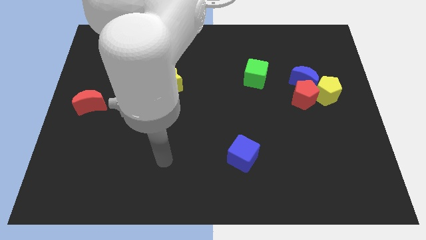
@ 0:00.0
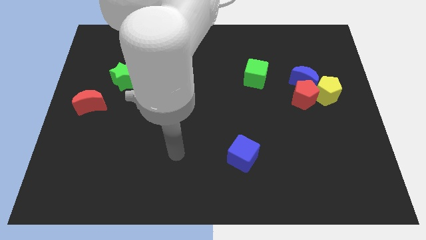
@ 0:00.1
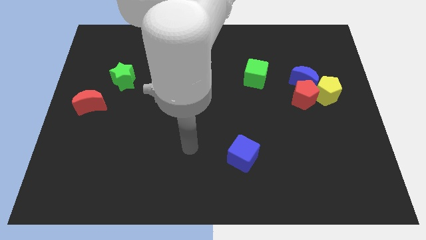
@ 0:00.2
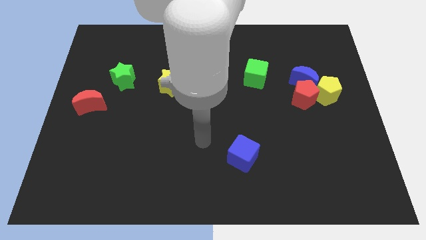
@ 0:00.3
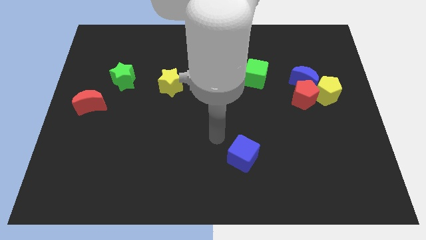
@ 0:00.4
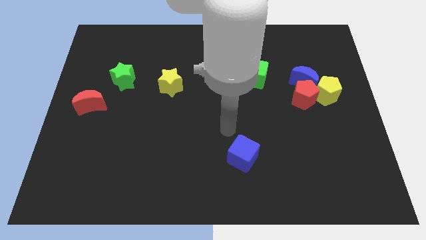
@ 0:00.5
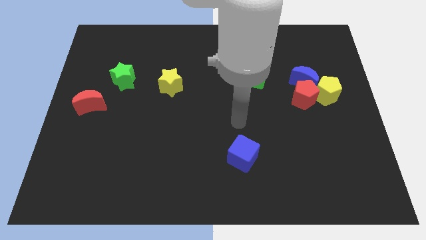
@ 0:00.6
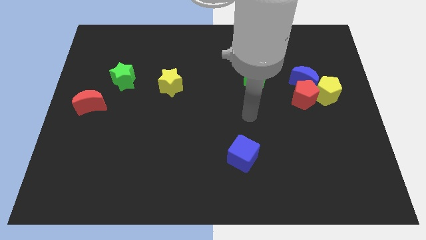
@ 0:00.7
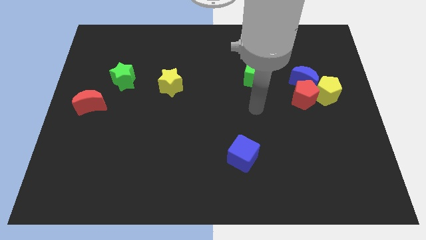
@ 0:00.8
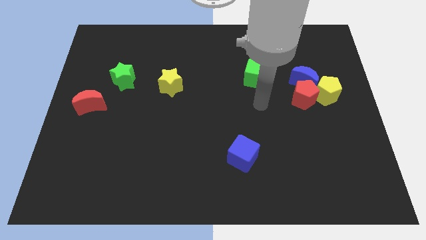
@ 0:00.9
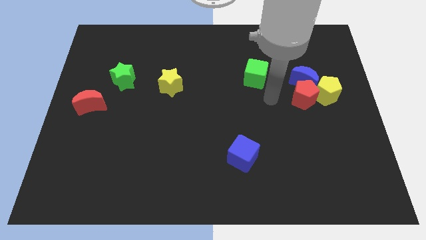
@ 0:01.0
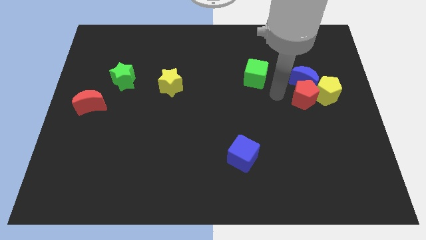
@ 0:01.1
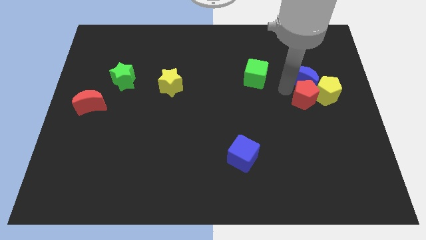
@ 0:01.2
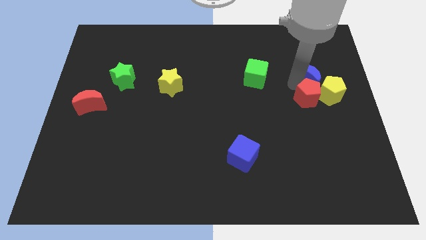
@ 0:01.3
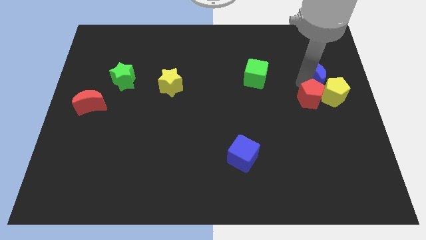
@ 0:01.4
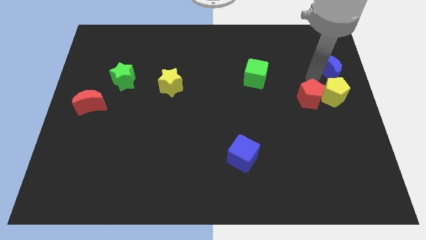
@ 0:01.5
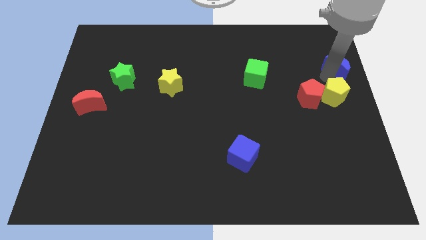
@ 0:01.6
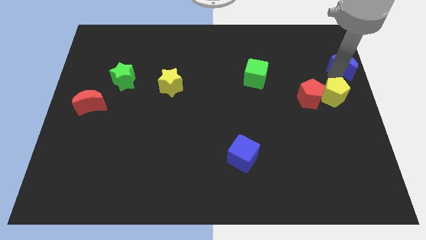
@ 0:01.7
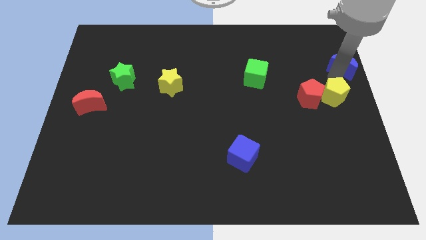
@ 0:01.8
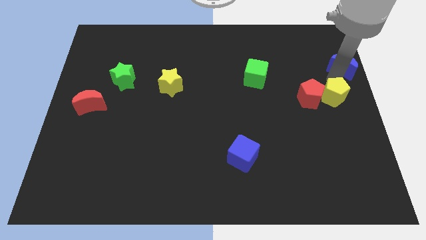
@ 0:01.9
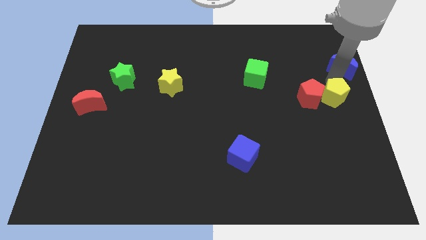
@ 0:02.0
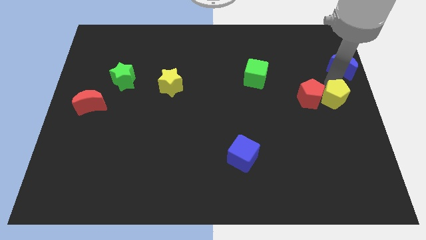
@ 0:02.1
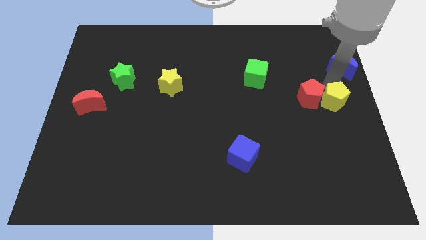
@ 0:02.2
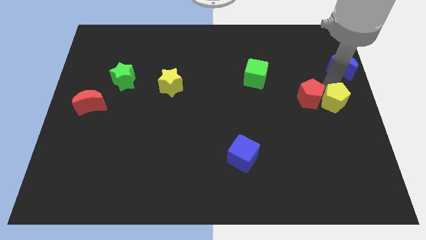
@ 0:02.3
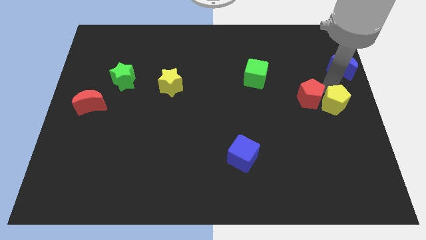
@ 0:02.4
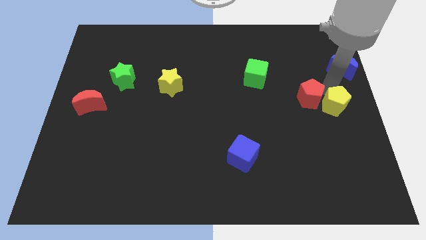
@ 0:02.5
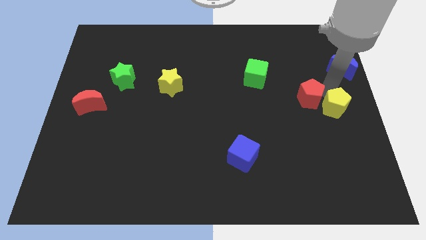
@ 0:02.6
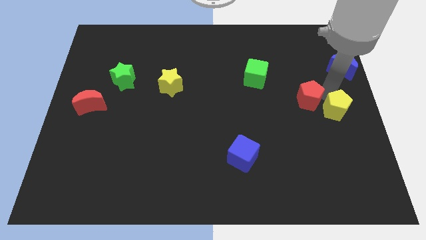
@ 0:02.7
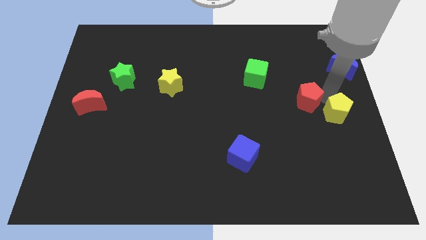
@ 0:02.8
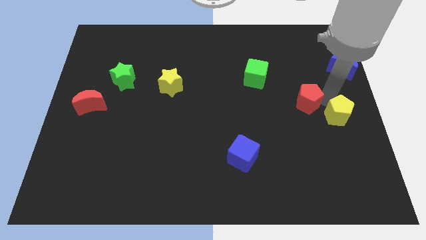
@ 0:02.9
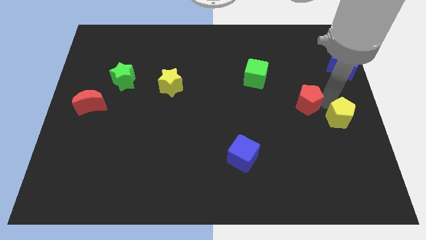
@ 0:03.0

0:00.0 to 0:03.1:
push the yellow pentagon downwards a little bit

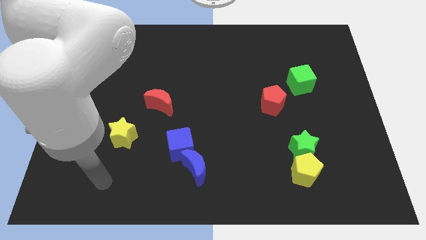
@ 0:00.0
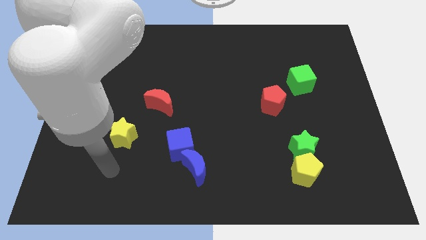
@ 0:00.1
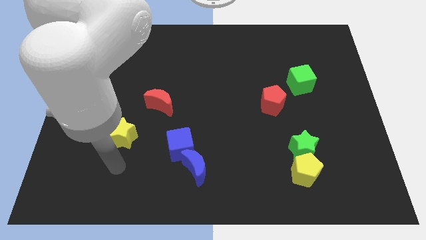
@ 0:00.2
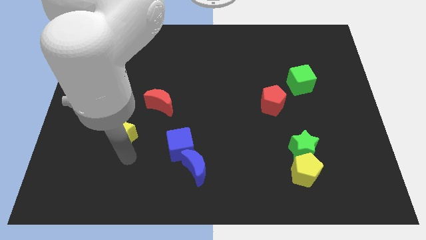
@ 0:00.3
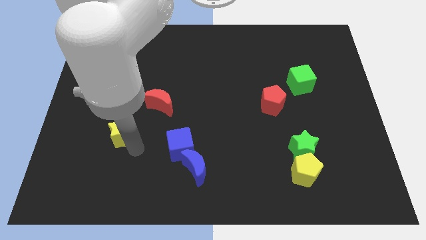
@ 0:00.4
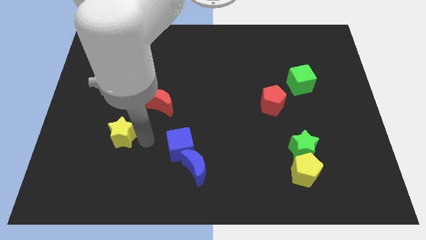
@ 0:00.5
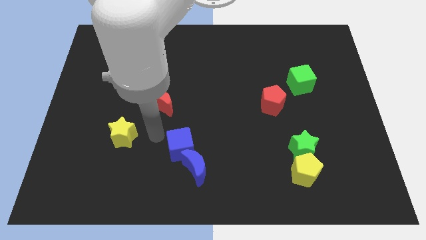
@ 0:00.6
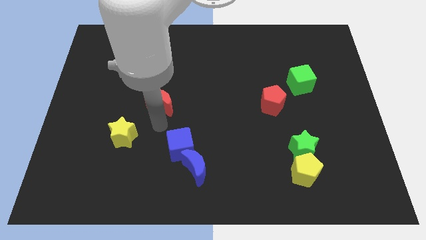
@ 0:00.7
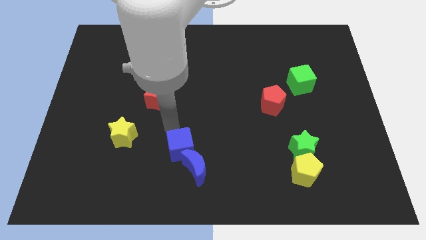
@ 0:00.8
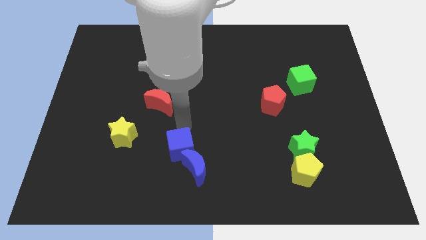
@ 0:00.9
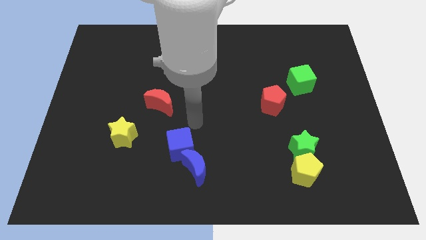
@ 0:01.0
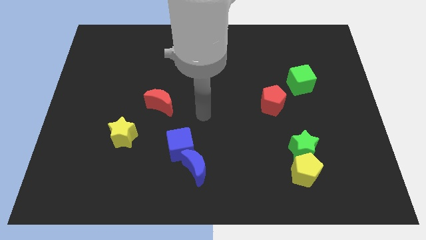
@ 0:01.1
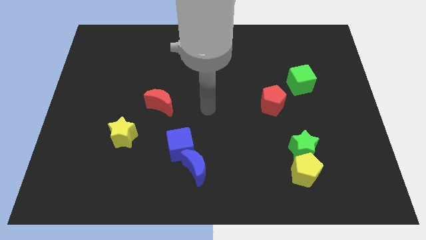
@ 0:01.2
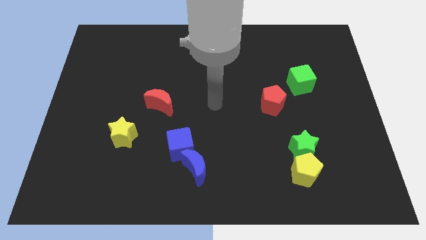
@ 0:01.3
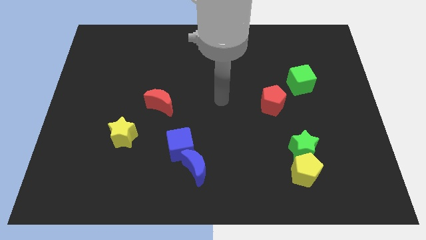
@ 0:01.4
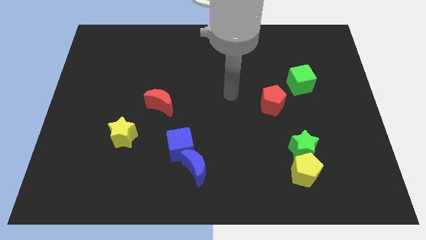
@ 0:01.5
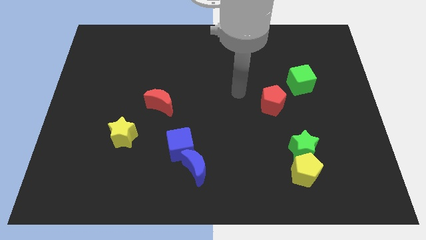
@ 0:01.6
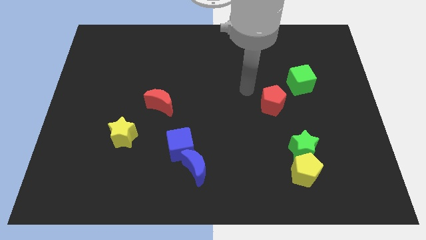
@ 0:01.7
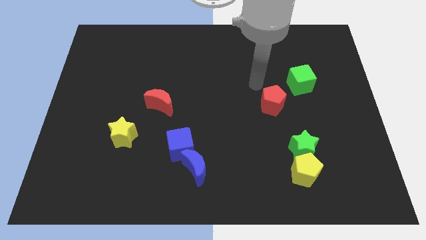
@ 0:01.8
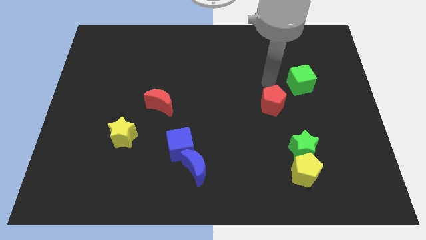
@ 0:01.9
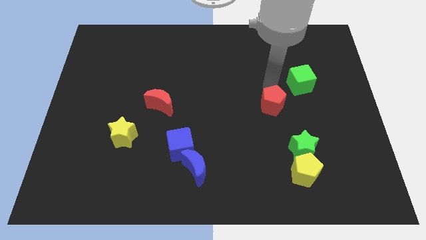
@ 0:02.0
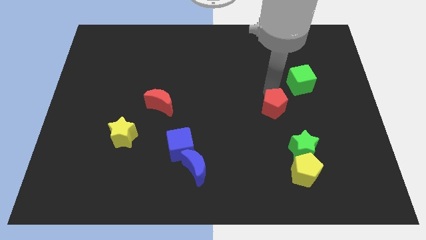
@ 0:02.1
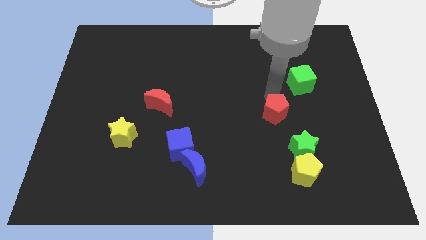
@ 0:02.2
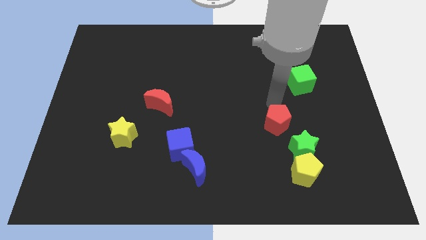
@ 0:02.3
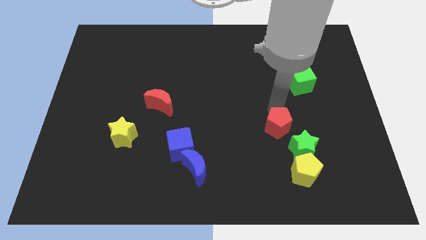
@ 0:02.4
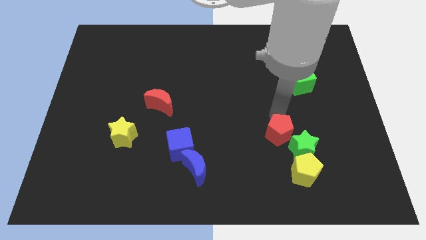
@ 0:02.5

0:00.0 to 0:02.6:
slide the red pentagon downwards a bit

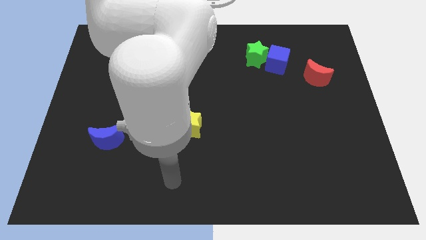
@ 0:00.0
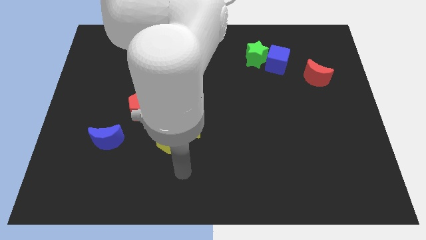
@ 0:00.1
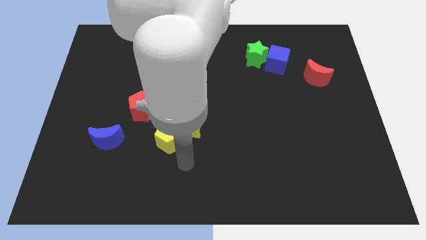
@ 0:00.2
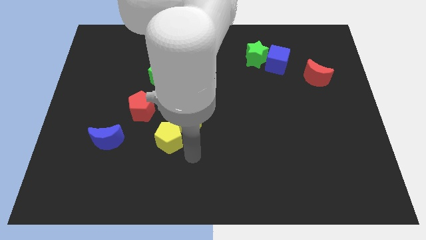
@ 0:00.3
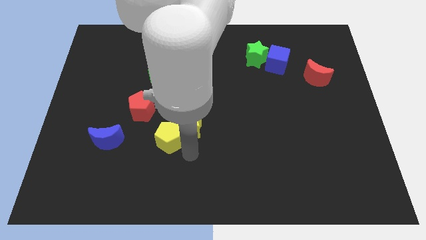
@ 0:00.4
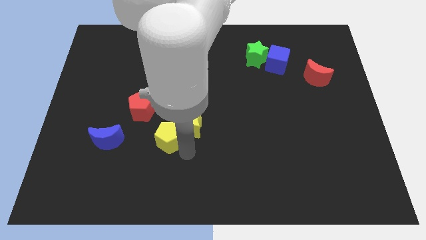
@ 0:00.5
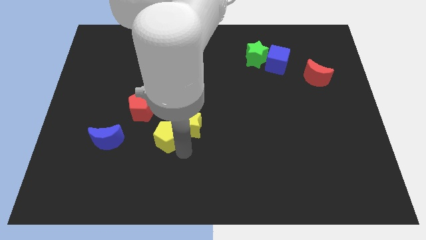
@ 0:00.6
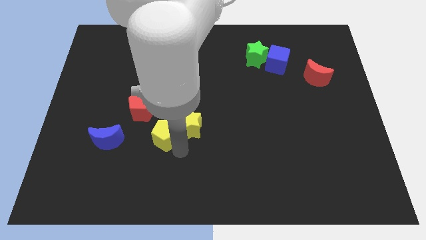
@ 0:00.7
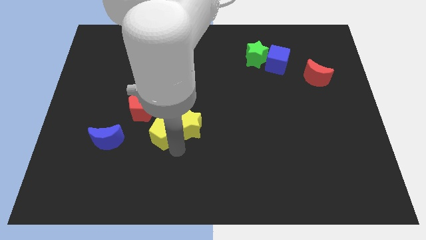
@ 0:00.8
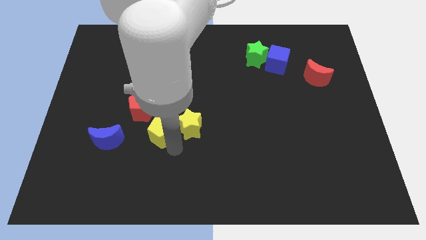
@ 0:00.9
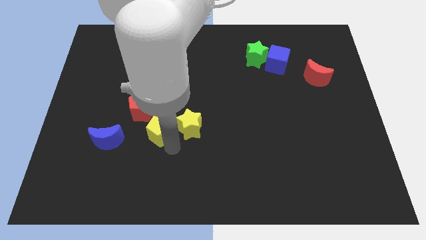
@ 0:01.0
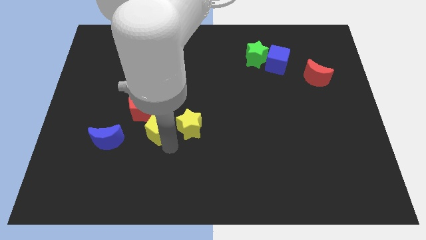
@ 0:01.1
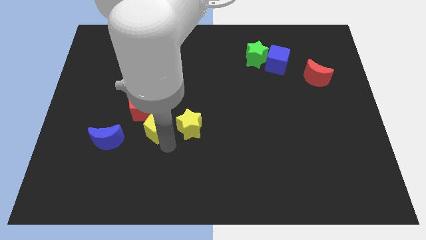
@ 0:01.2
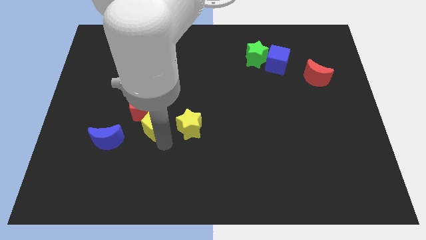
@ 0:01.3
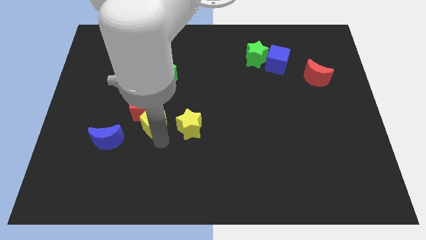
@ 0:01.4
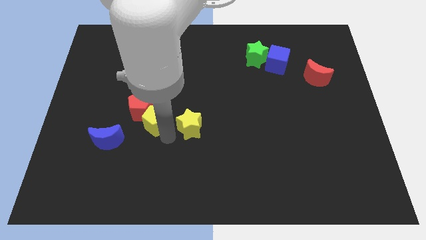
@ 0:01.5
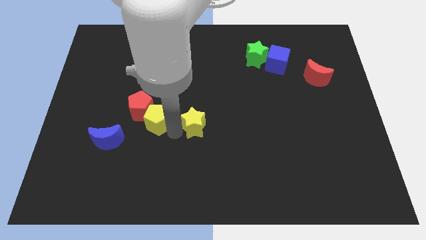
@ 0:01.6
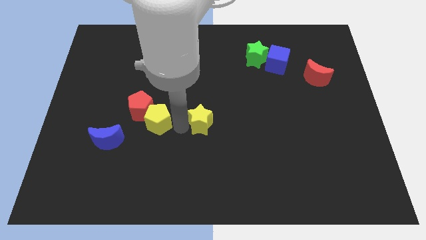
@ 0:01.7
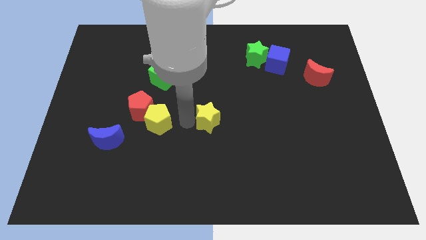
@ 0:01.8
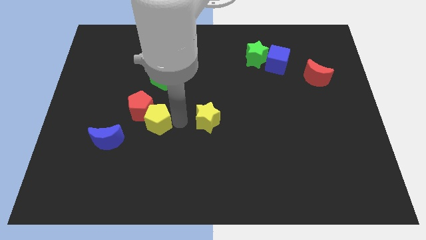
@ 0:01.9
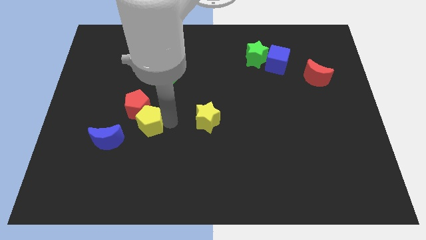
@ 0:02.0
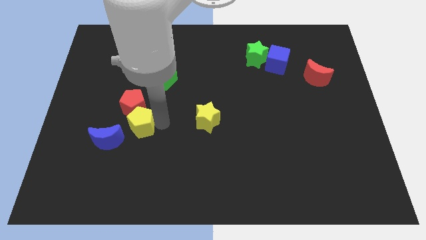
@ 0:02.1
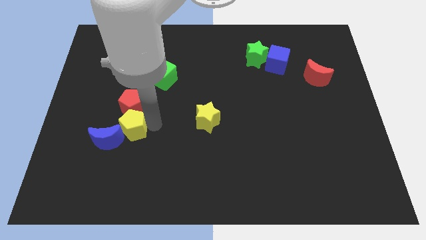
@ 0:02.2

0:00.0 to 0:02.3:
move the yellow pentagon to the left somewhat
